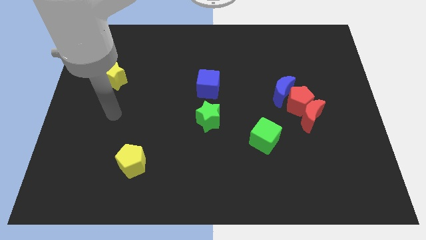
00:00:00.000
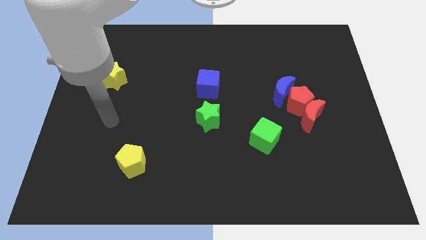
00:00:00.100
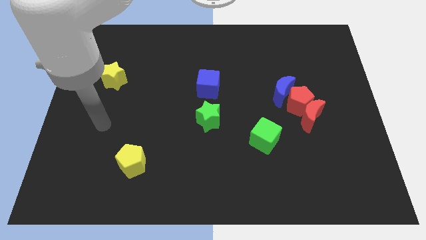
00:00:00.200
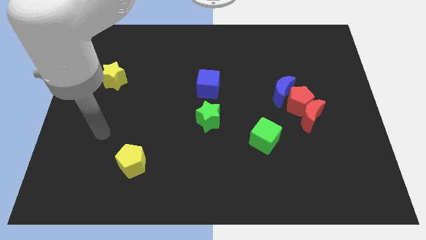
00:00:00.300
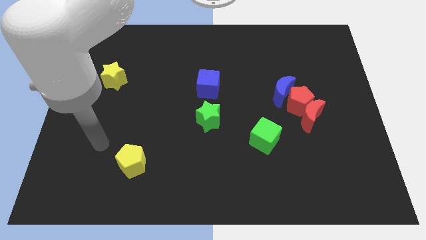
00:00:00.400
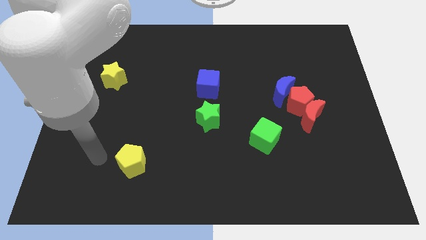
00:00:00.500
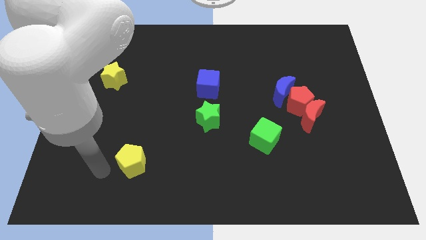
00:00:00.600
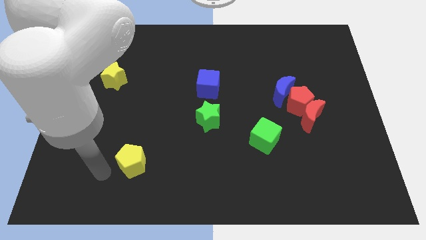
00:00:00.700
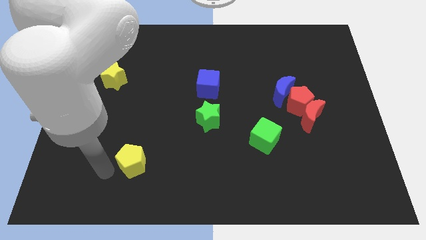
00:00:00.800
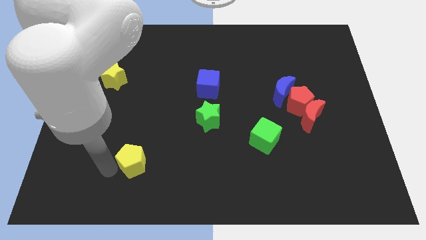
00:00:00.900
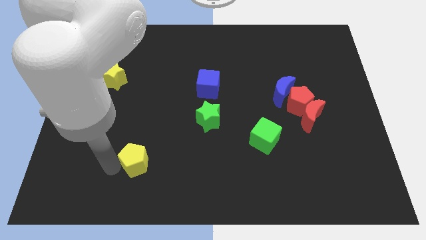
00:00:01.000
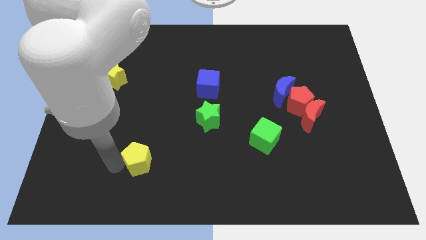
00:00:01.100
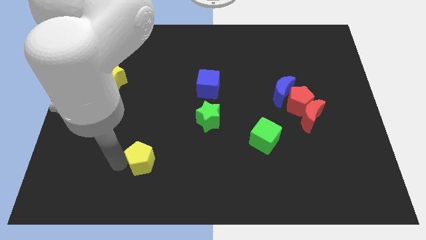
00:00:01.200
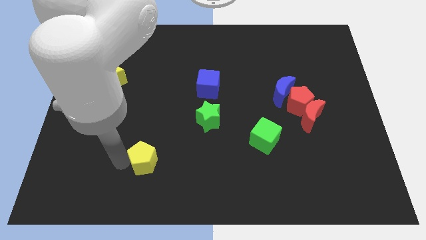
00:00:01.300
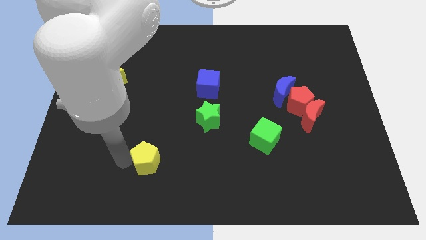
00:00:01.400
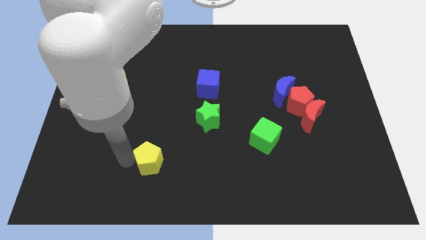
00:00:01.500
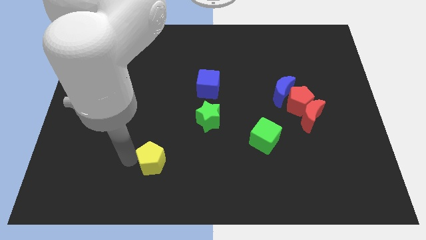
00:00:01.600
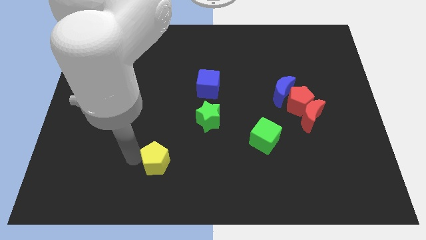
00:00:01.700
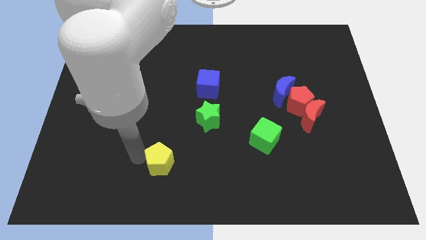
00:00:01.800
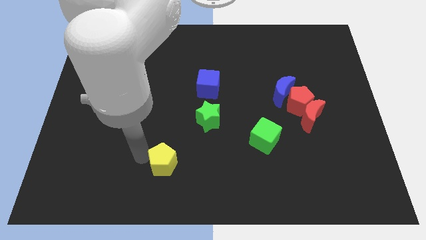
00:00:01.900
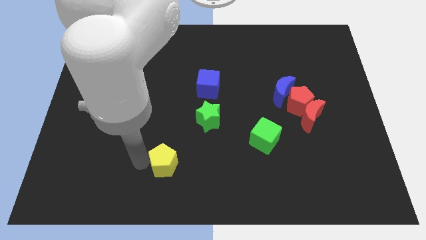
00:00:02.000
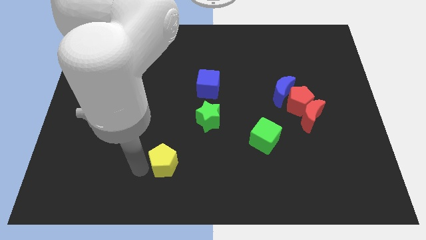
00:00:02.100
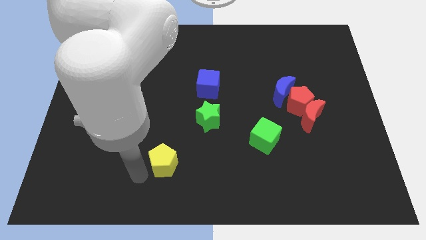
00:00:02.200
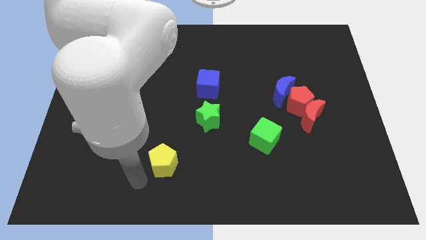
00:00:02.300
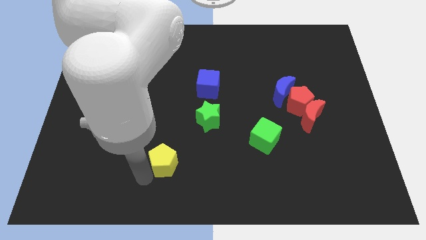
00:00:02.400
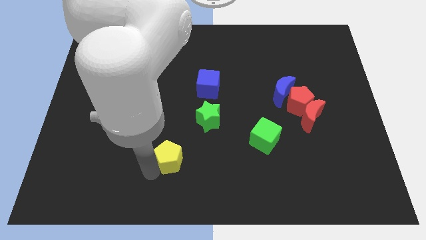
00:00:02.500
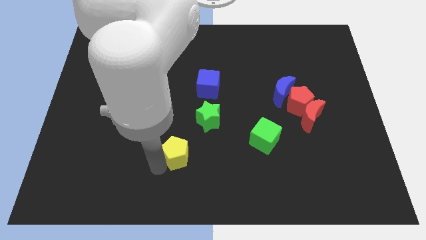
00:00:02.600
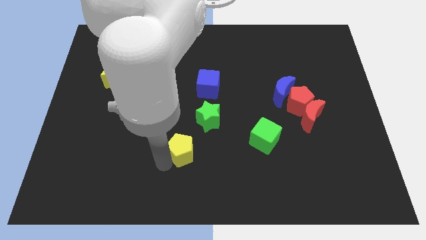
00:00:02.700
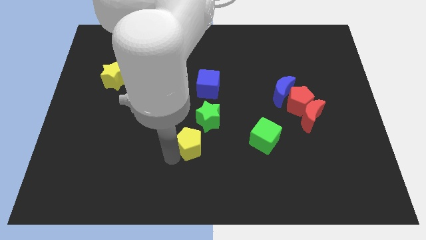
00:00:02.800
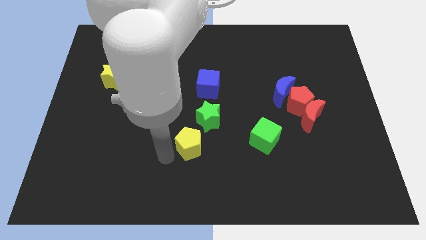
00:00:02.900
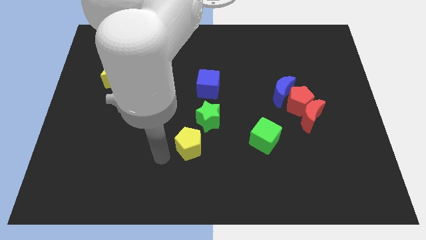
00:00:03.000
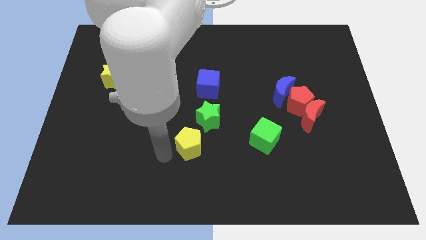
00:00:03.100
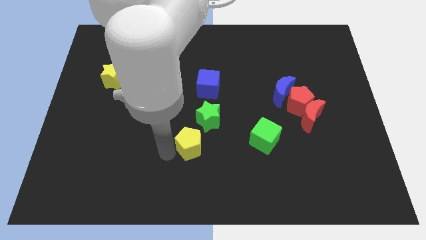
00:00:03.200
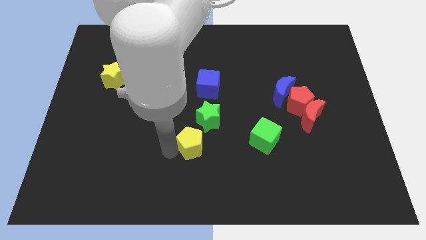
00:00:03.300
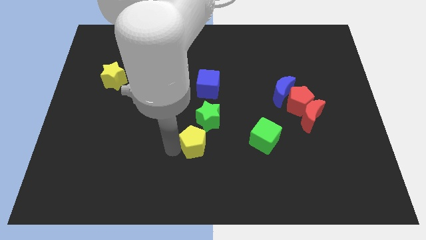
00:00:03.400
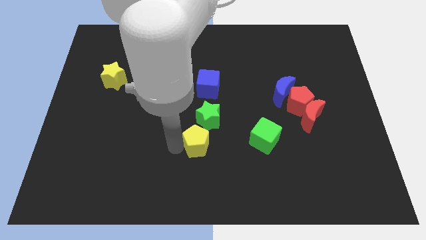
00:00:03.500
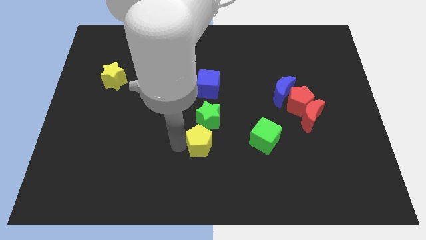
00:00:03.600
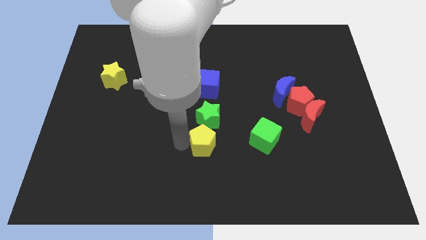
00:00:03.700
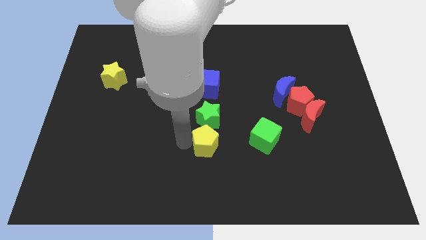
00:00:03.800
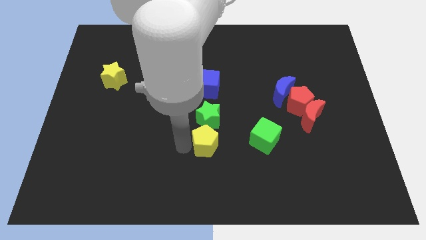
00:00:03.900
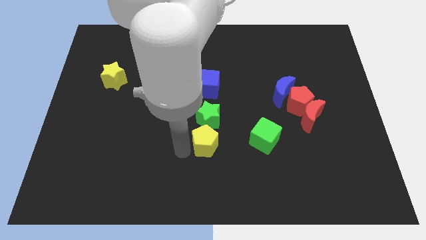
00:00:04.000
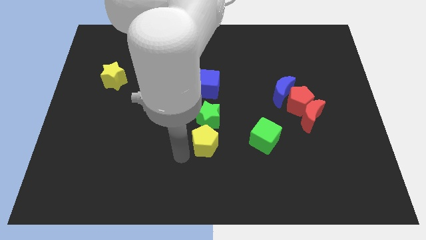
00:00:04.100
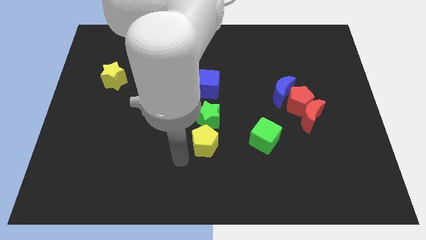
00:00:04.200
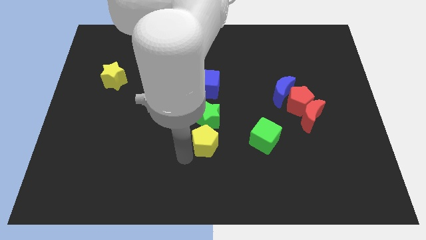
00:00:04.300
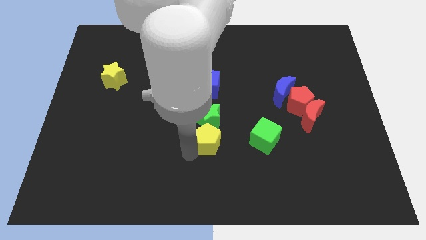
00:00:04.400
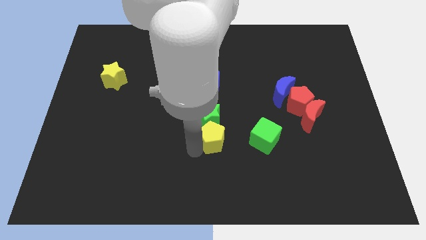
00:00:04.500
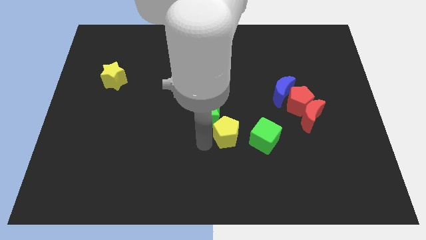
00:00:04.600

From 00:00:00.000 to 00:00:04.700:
slide the yellow pentagon just right of the green star

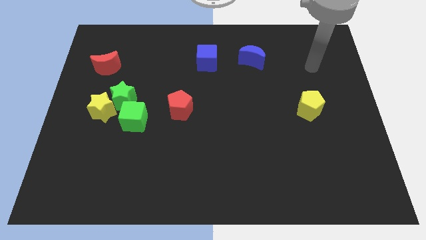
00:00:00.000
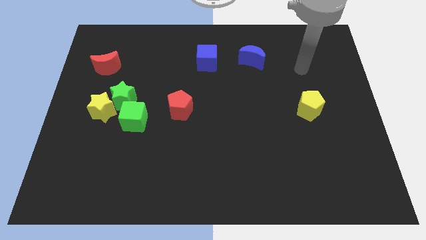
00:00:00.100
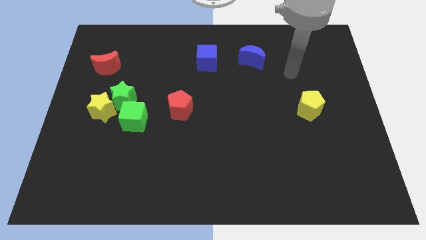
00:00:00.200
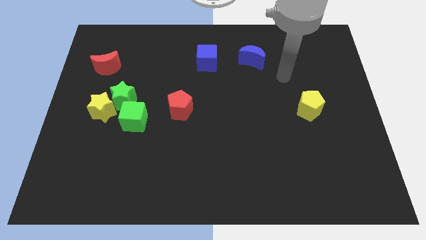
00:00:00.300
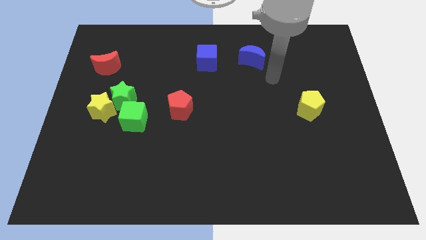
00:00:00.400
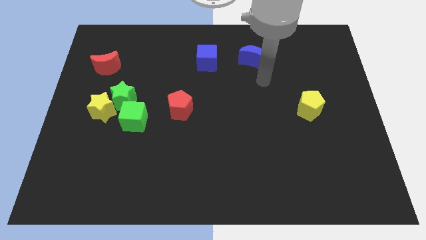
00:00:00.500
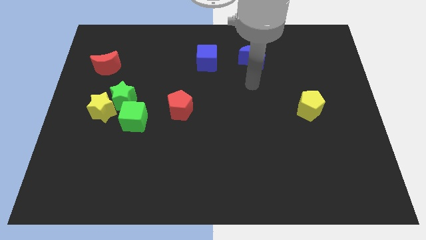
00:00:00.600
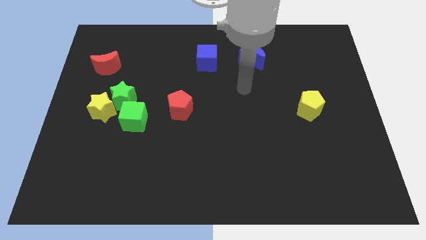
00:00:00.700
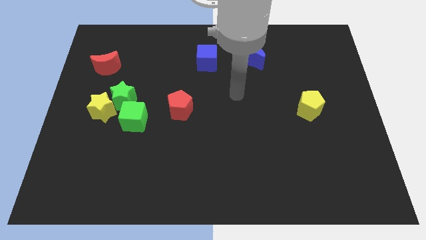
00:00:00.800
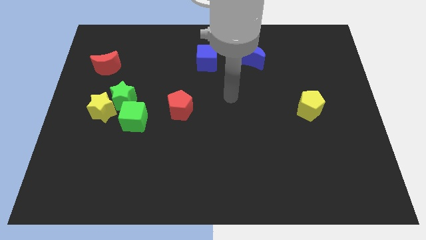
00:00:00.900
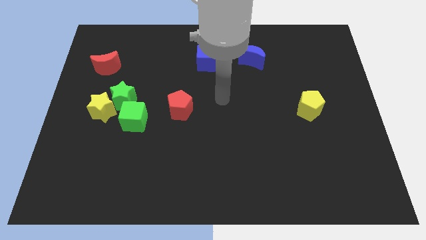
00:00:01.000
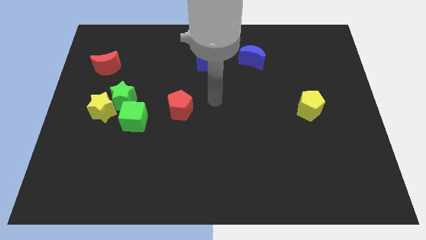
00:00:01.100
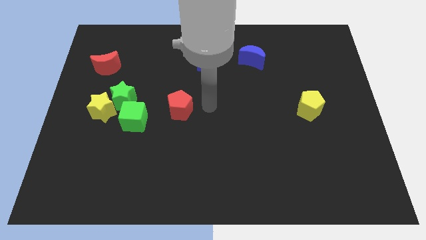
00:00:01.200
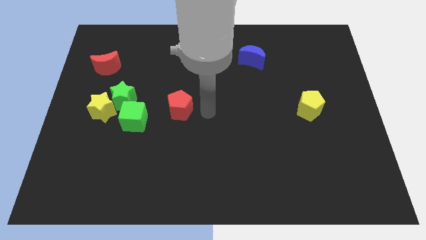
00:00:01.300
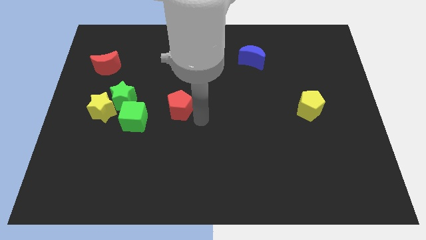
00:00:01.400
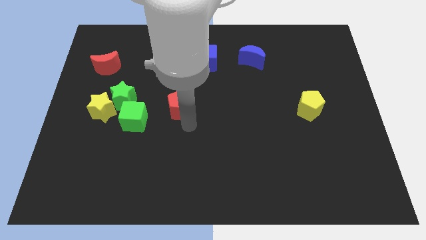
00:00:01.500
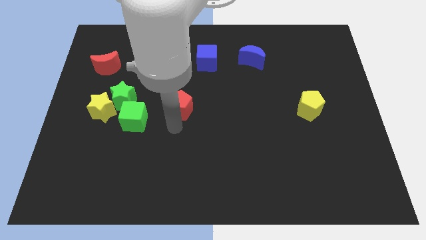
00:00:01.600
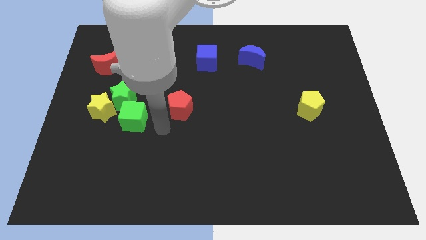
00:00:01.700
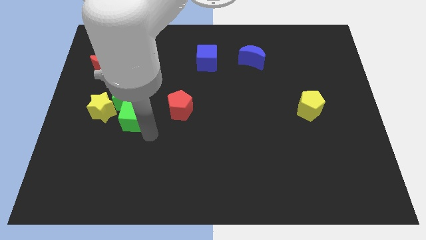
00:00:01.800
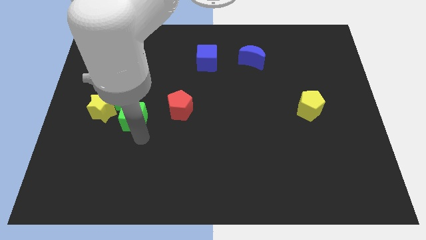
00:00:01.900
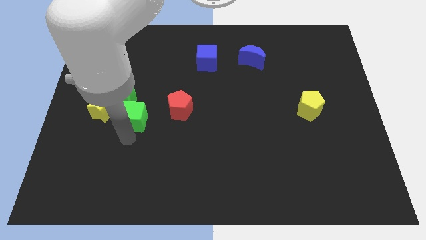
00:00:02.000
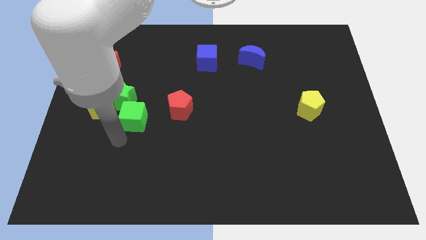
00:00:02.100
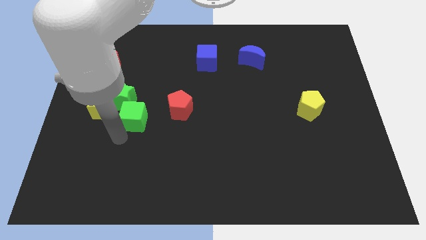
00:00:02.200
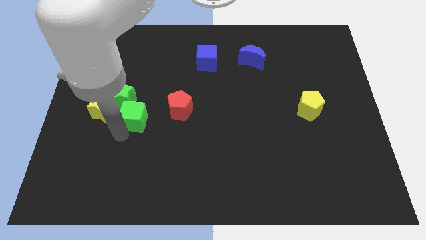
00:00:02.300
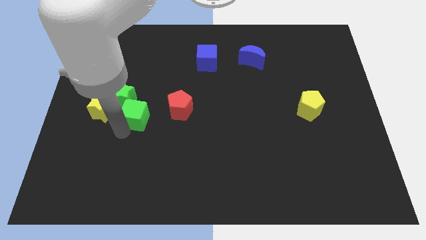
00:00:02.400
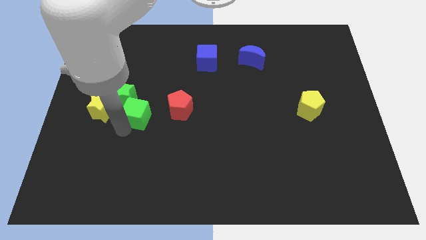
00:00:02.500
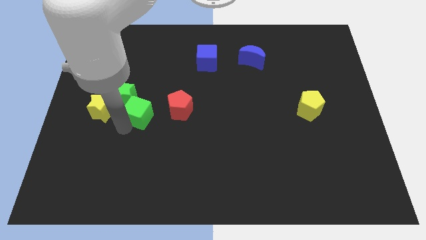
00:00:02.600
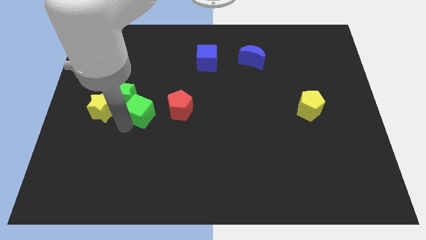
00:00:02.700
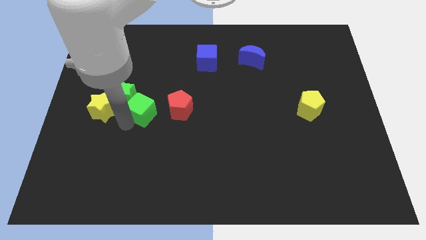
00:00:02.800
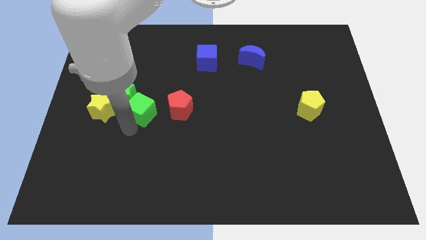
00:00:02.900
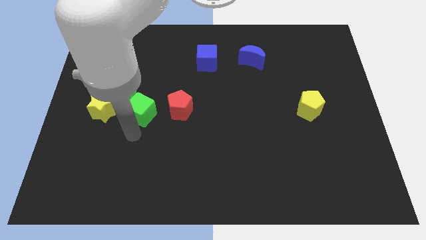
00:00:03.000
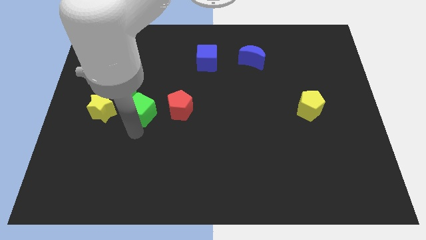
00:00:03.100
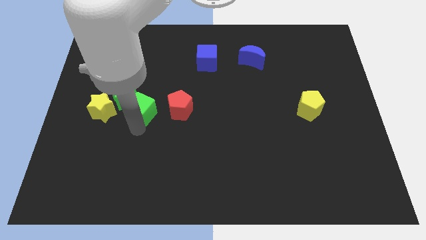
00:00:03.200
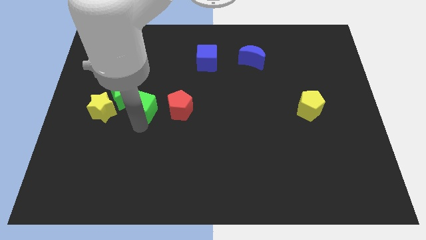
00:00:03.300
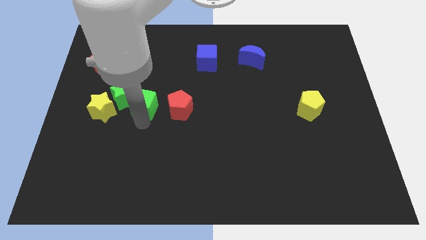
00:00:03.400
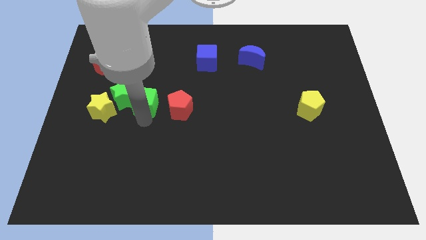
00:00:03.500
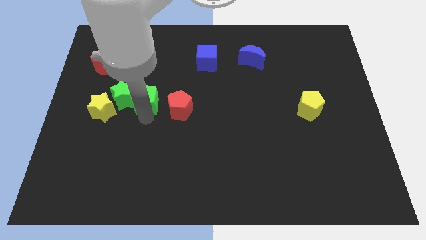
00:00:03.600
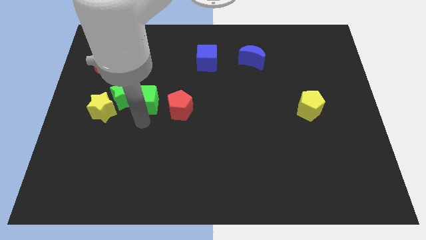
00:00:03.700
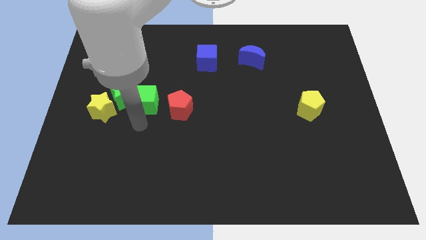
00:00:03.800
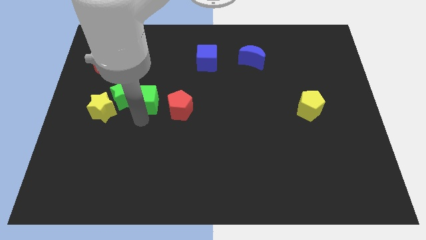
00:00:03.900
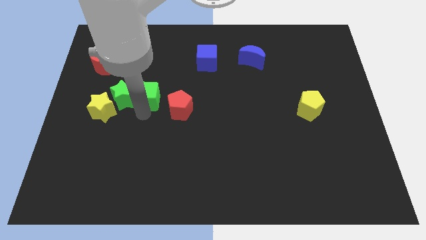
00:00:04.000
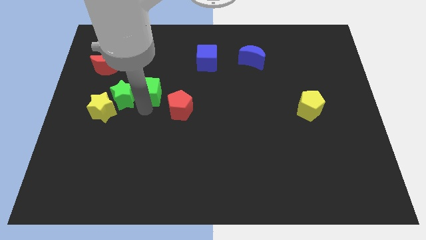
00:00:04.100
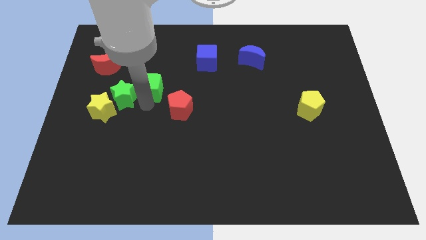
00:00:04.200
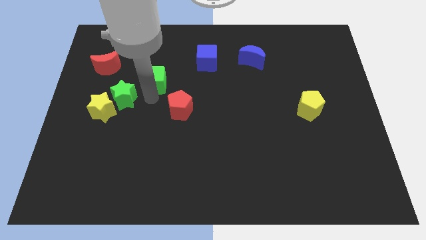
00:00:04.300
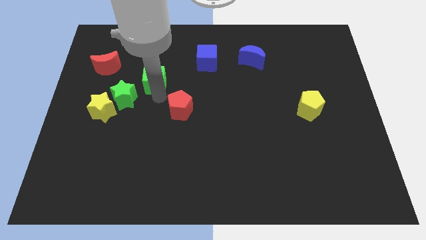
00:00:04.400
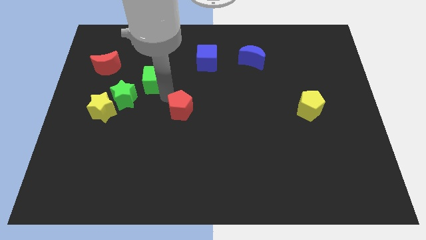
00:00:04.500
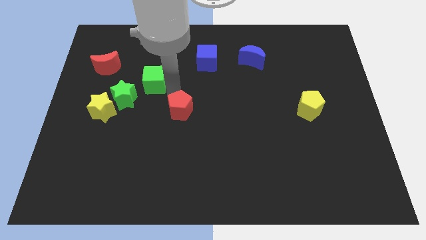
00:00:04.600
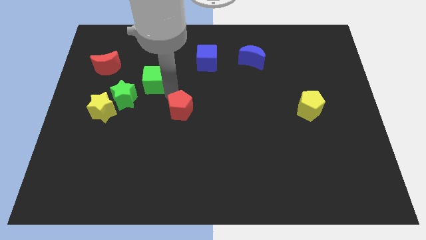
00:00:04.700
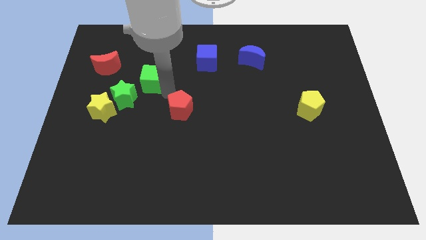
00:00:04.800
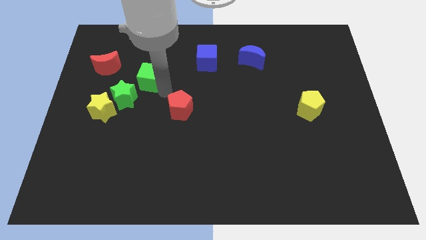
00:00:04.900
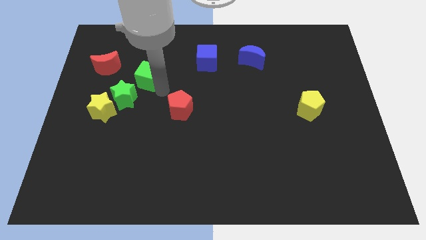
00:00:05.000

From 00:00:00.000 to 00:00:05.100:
slide the green cube to the top of the green star
